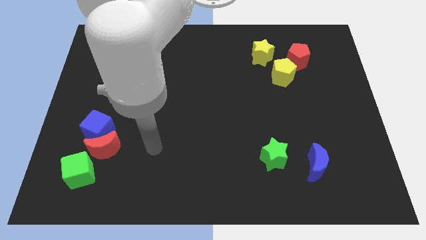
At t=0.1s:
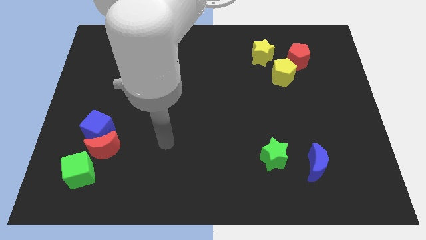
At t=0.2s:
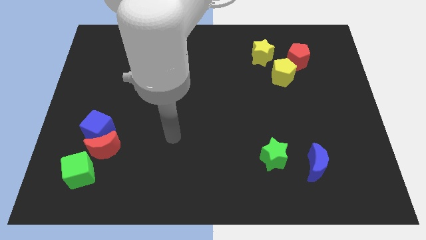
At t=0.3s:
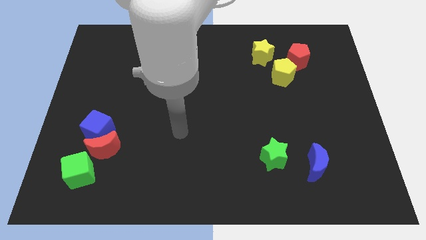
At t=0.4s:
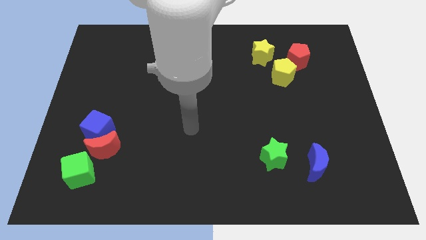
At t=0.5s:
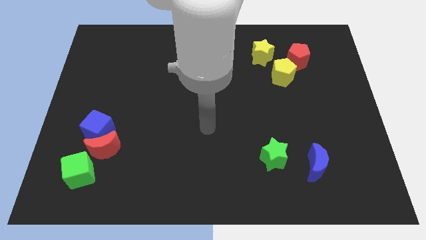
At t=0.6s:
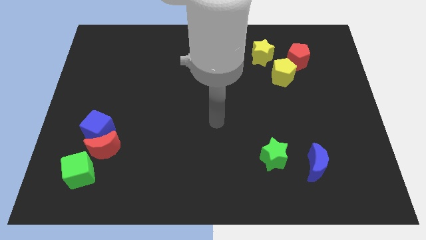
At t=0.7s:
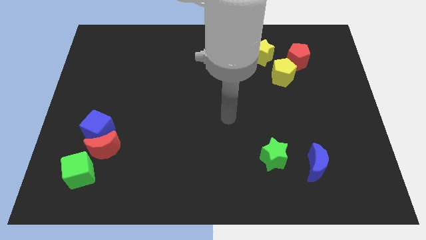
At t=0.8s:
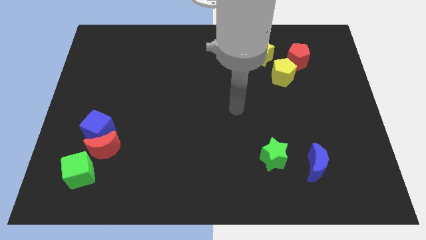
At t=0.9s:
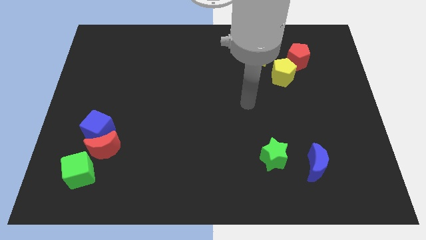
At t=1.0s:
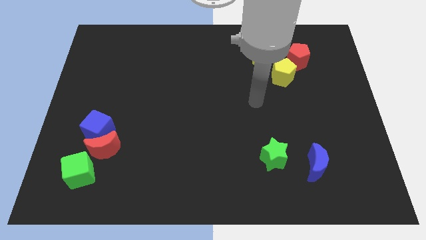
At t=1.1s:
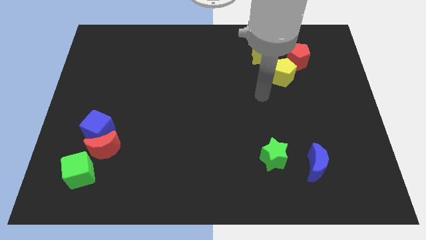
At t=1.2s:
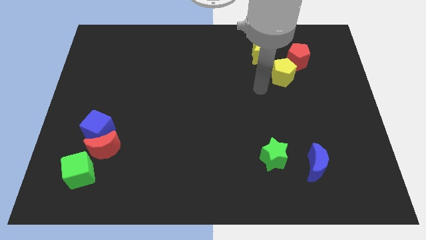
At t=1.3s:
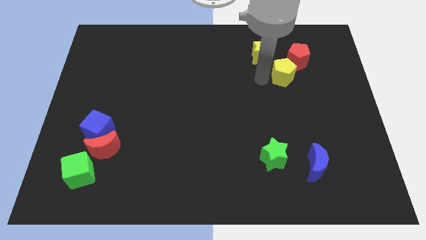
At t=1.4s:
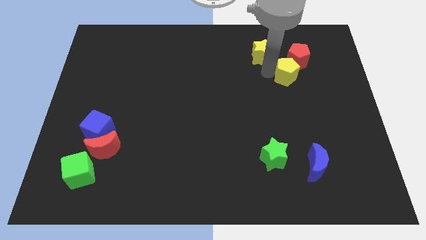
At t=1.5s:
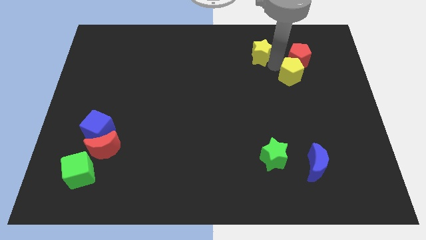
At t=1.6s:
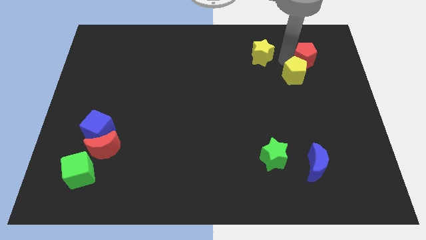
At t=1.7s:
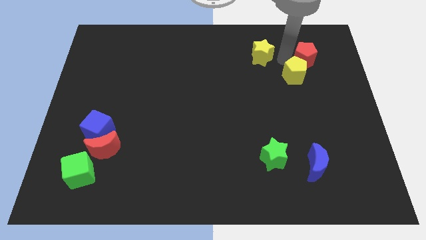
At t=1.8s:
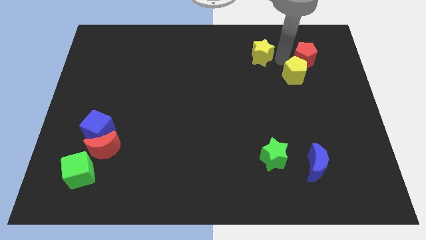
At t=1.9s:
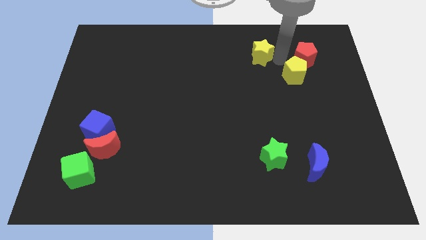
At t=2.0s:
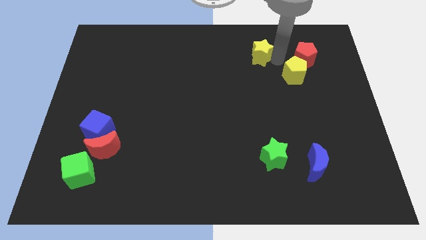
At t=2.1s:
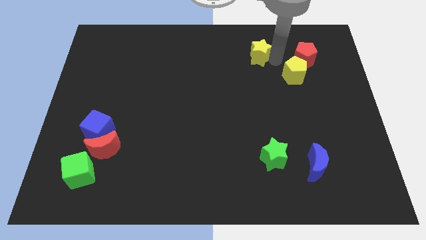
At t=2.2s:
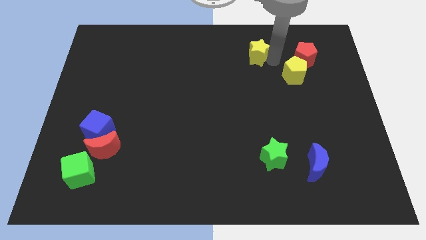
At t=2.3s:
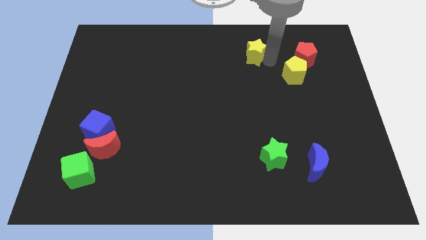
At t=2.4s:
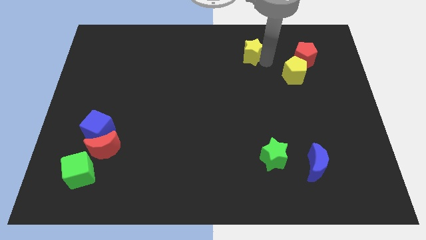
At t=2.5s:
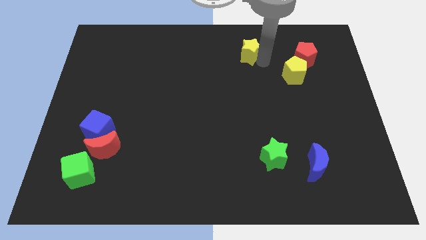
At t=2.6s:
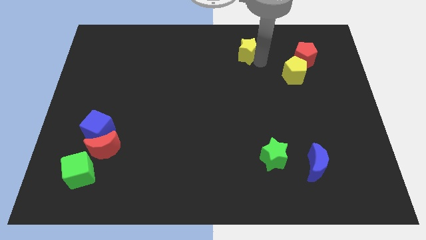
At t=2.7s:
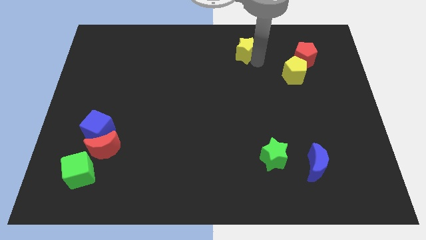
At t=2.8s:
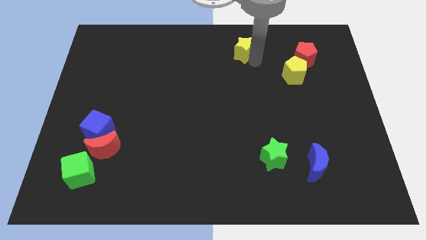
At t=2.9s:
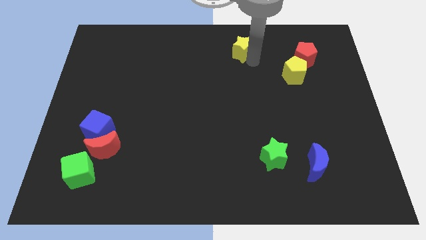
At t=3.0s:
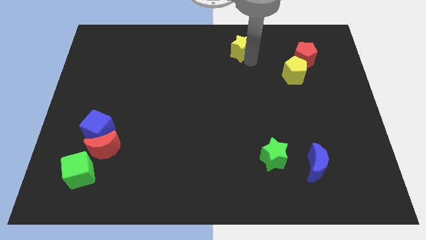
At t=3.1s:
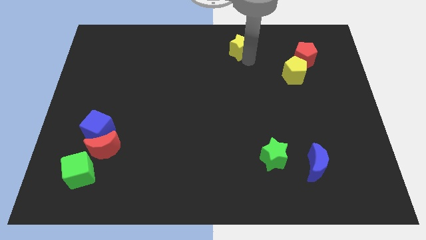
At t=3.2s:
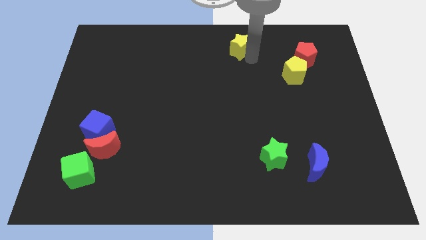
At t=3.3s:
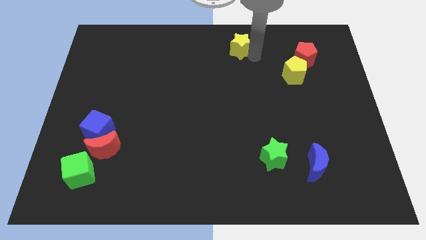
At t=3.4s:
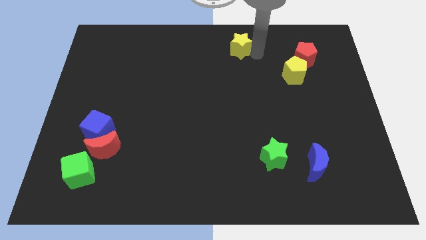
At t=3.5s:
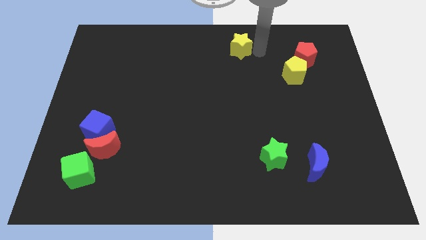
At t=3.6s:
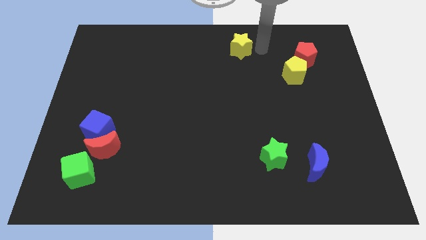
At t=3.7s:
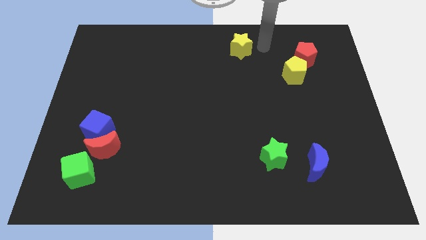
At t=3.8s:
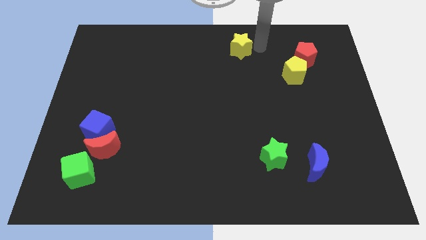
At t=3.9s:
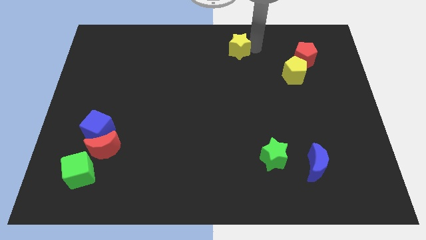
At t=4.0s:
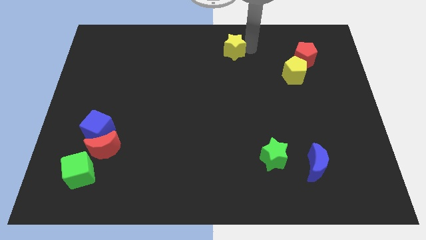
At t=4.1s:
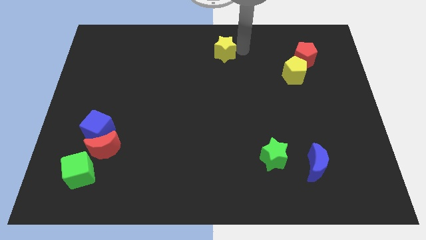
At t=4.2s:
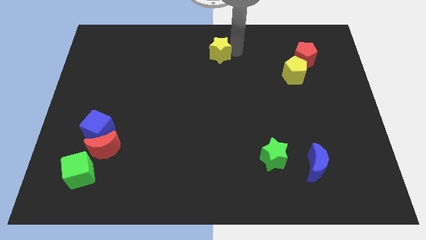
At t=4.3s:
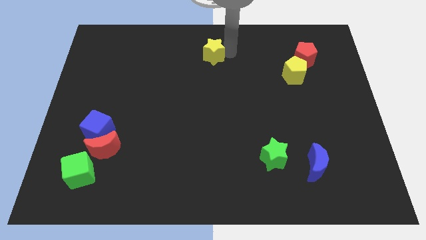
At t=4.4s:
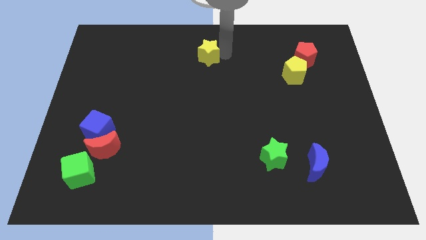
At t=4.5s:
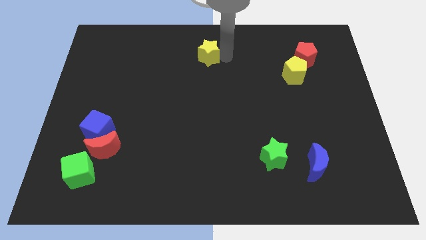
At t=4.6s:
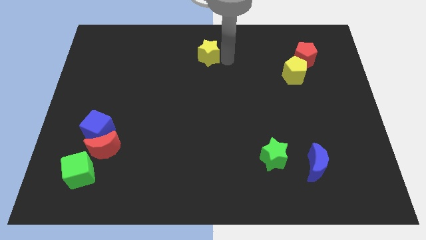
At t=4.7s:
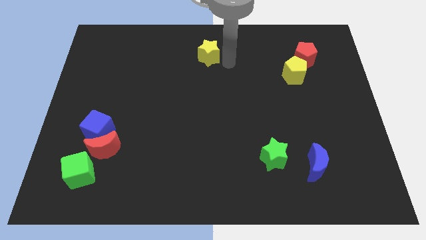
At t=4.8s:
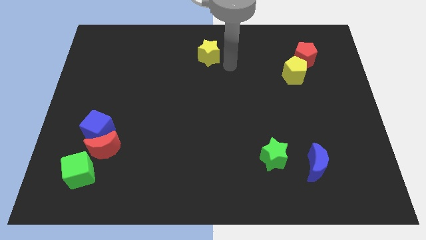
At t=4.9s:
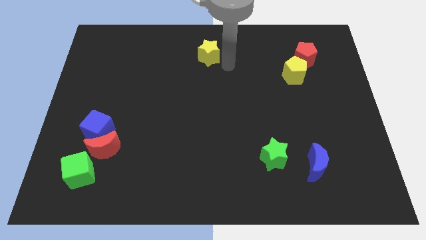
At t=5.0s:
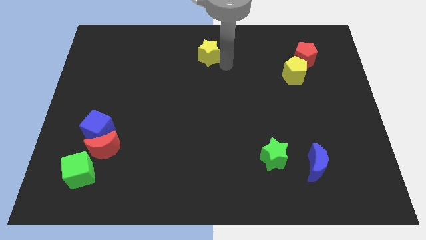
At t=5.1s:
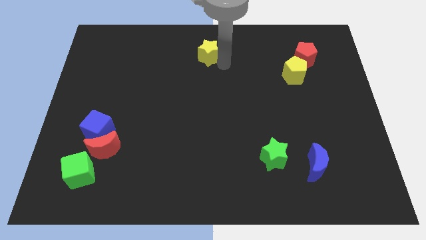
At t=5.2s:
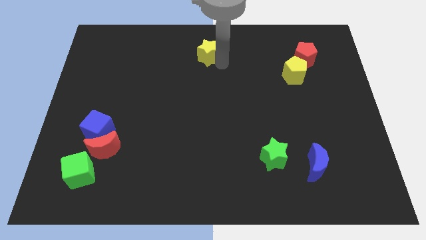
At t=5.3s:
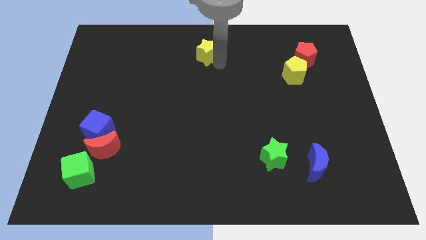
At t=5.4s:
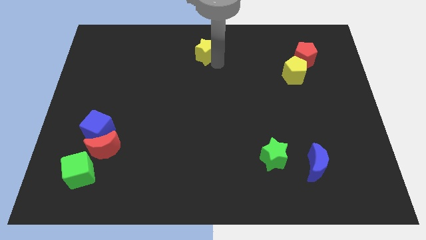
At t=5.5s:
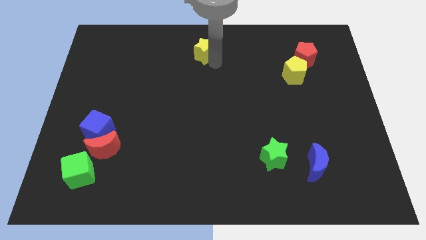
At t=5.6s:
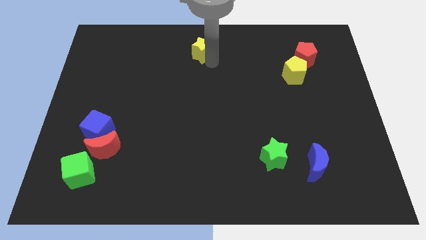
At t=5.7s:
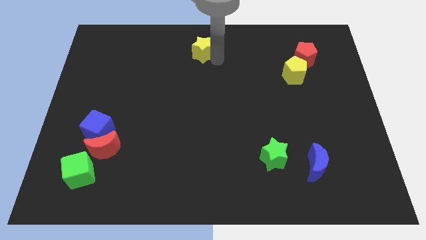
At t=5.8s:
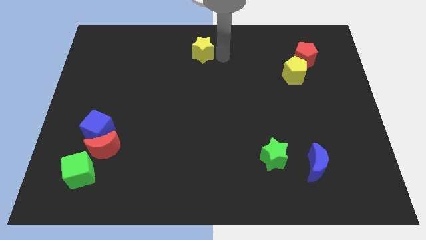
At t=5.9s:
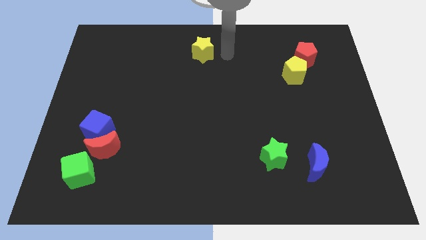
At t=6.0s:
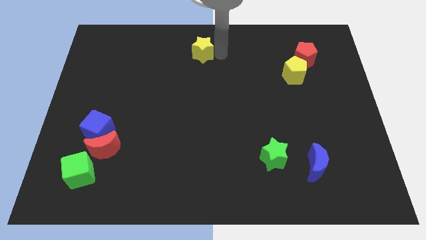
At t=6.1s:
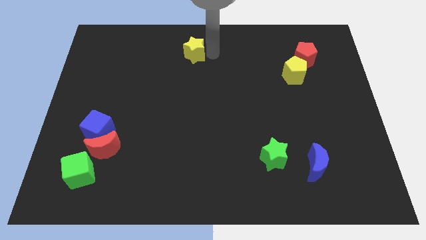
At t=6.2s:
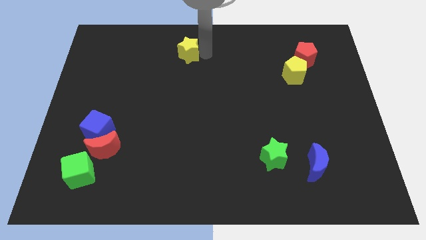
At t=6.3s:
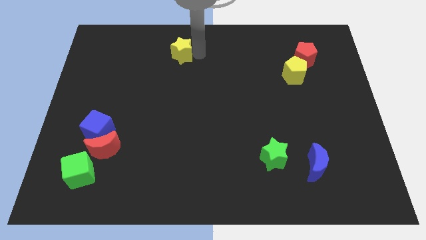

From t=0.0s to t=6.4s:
slide the yellow star left

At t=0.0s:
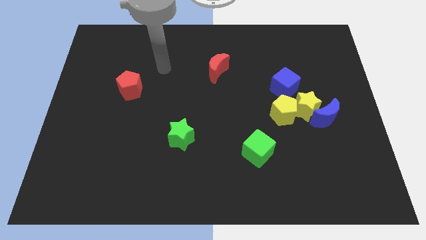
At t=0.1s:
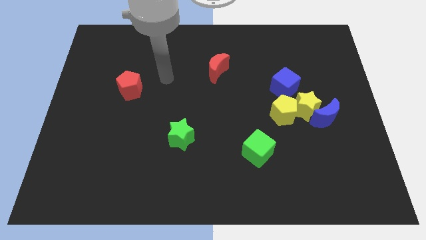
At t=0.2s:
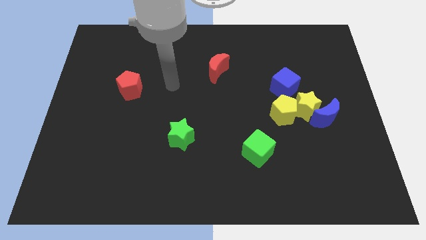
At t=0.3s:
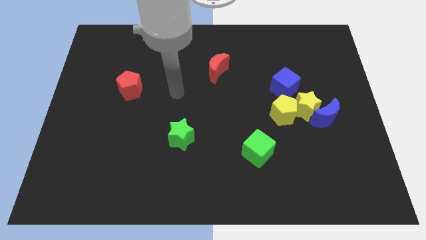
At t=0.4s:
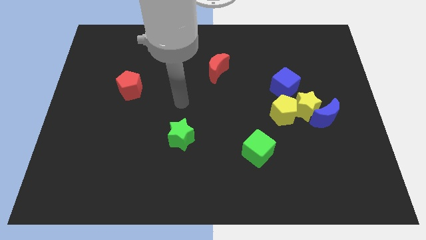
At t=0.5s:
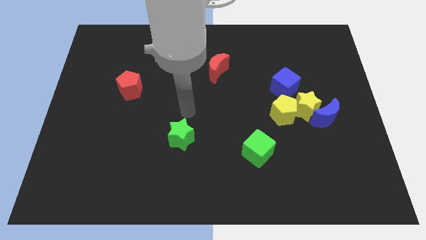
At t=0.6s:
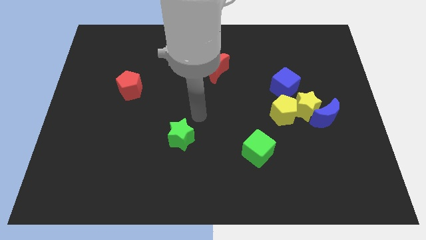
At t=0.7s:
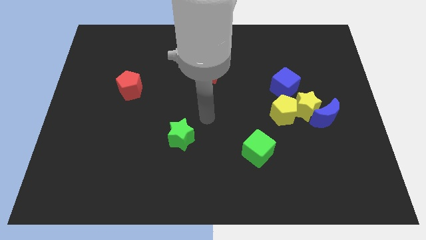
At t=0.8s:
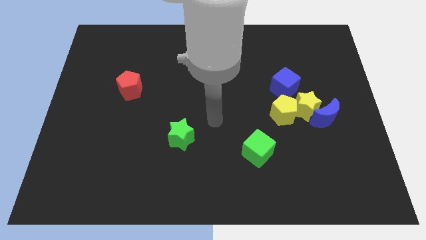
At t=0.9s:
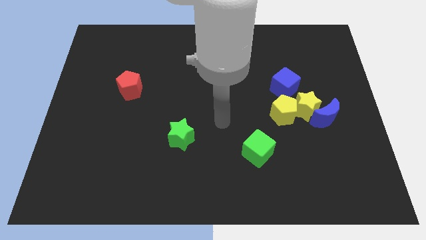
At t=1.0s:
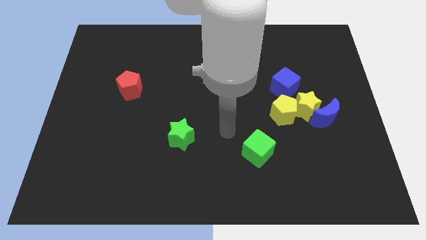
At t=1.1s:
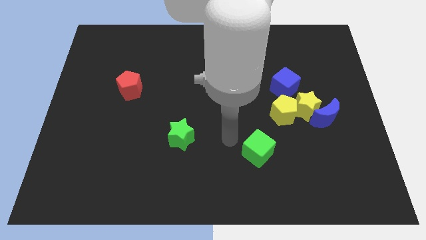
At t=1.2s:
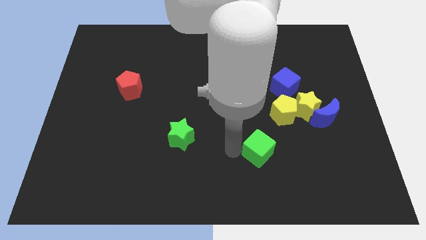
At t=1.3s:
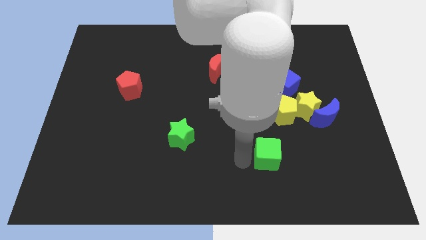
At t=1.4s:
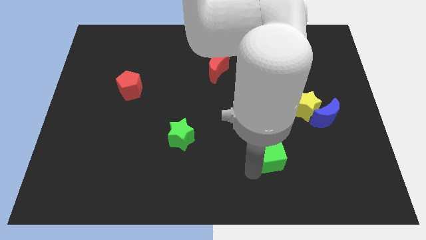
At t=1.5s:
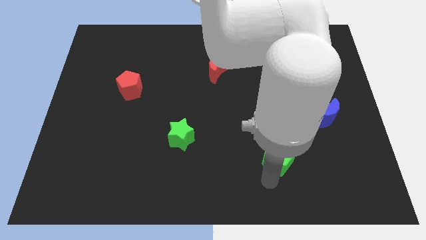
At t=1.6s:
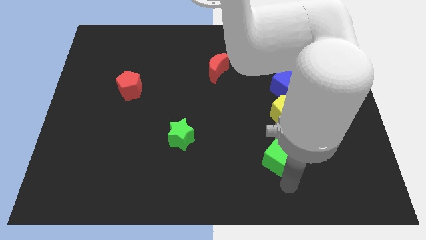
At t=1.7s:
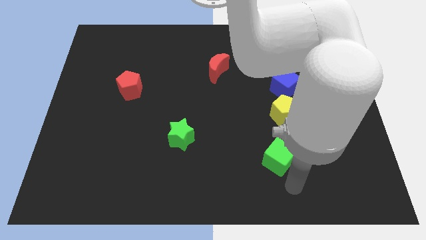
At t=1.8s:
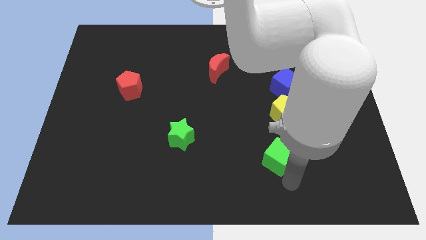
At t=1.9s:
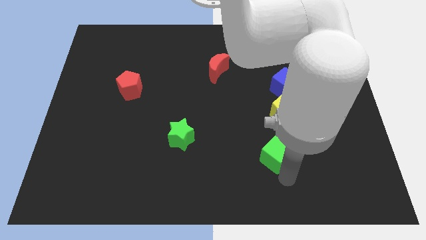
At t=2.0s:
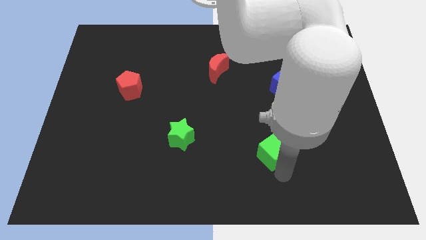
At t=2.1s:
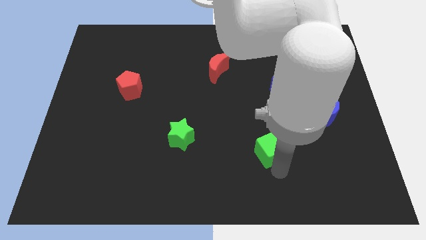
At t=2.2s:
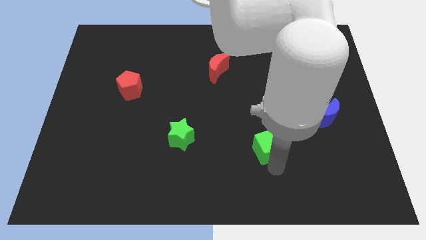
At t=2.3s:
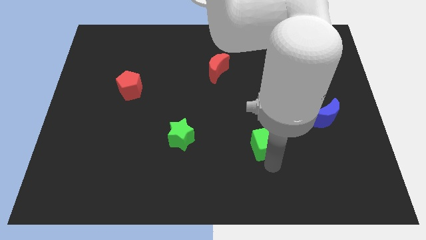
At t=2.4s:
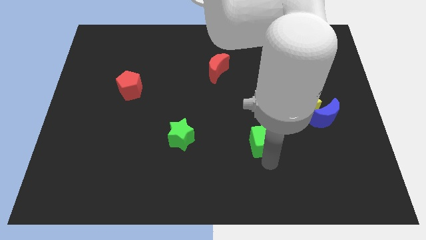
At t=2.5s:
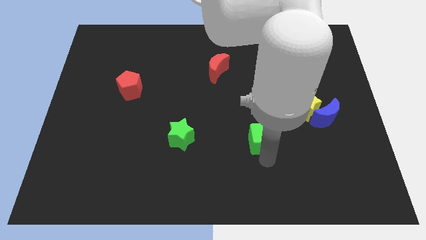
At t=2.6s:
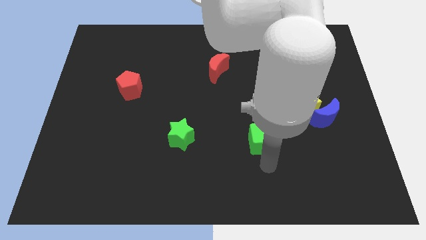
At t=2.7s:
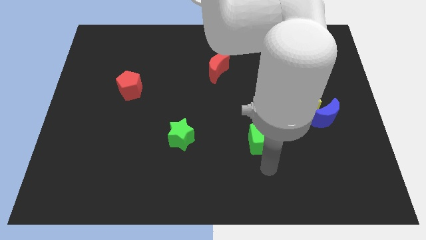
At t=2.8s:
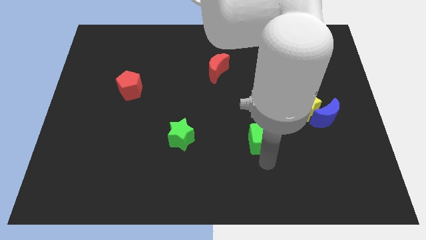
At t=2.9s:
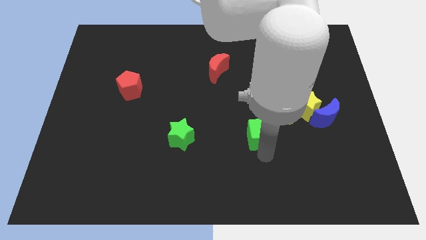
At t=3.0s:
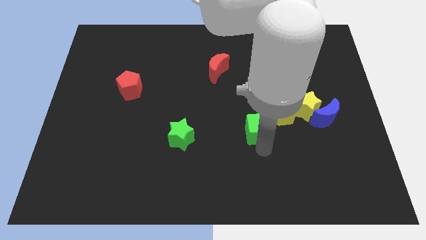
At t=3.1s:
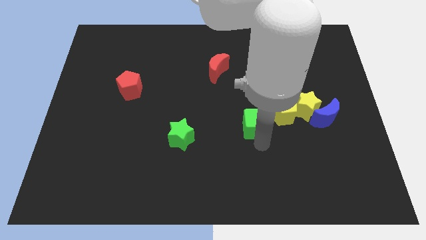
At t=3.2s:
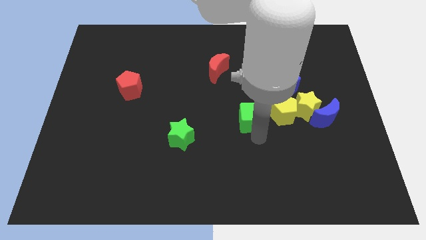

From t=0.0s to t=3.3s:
slide the green cube up a bit
